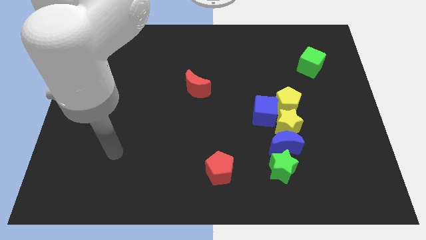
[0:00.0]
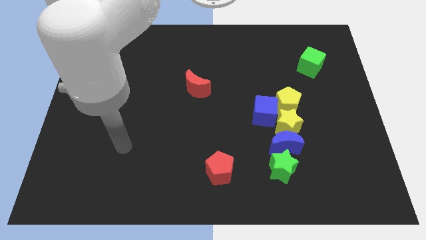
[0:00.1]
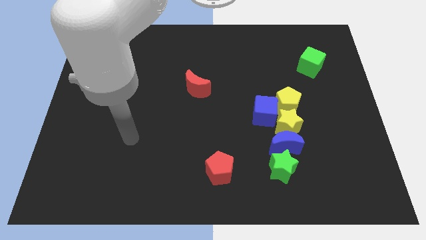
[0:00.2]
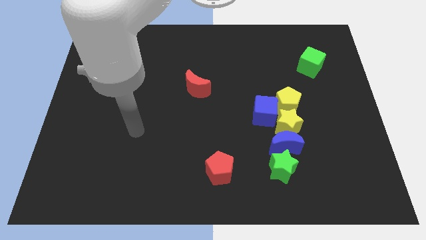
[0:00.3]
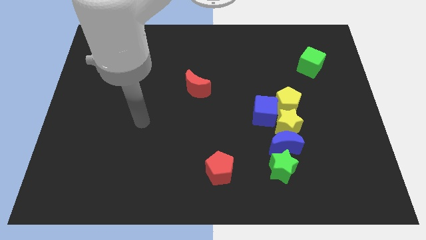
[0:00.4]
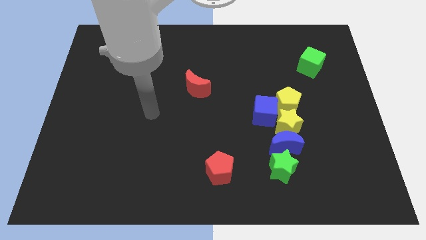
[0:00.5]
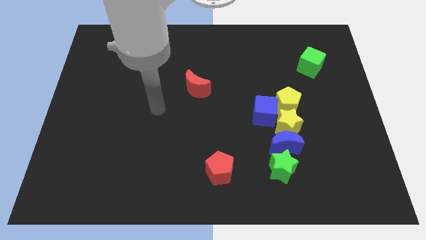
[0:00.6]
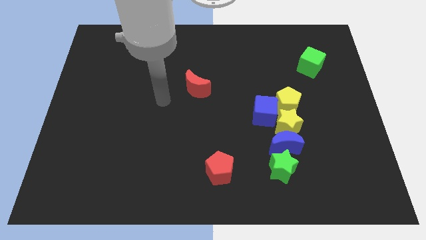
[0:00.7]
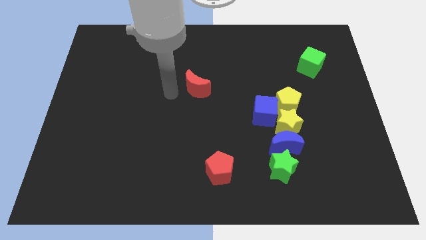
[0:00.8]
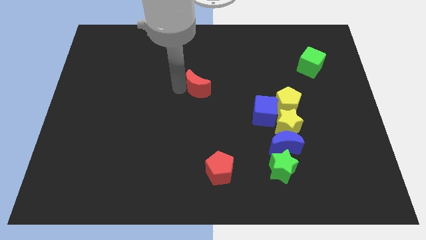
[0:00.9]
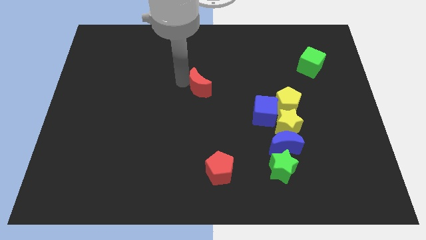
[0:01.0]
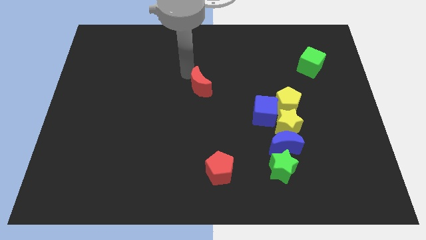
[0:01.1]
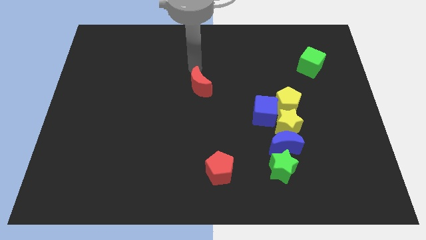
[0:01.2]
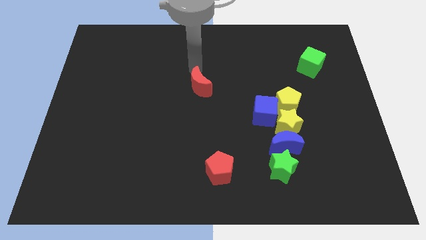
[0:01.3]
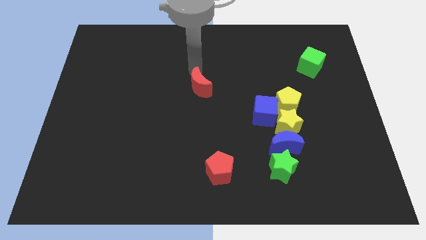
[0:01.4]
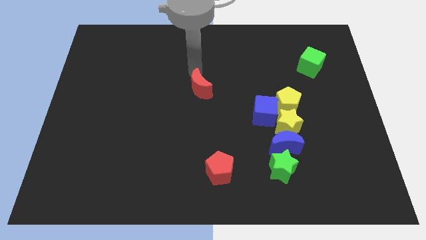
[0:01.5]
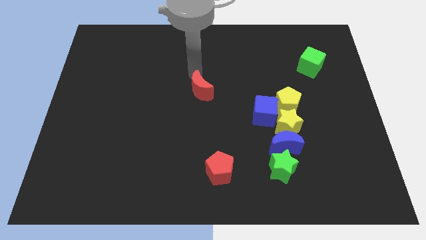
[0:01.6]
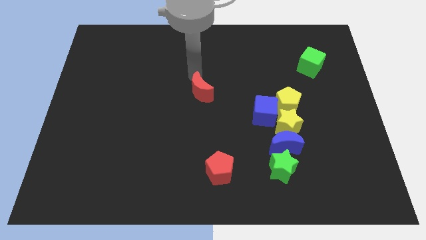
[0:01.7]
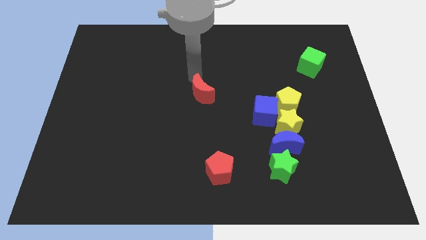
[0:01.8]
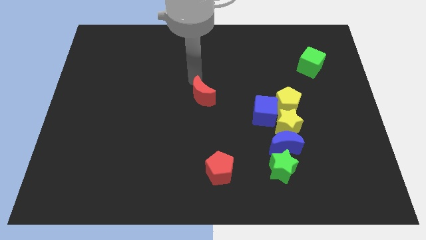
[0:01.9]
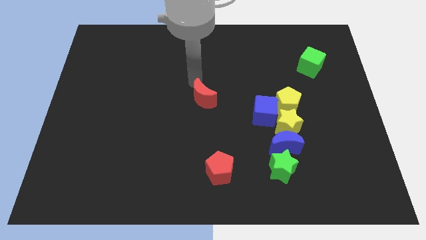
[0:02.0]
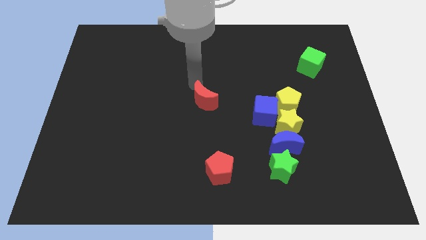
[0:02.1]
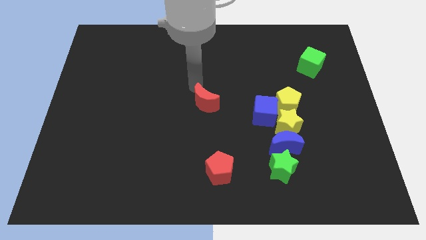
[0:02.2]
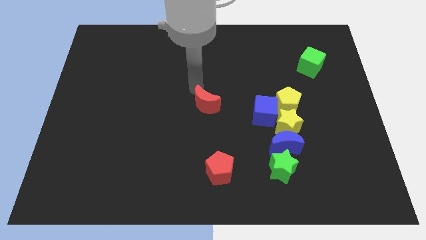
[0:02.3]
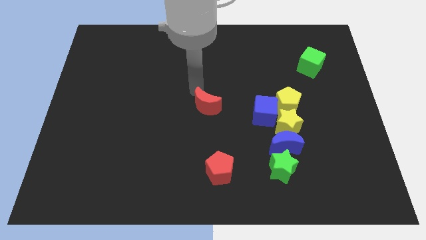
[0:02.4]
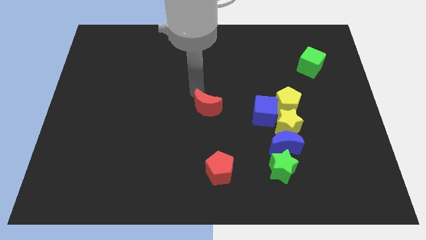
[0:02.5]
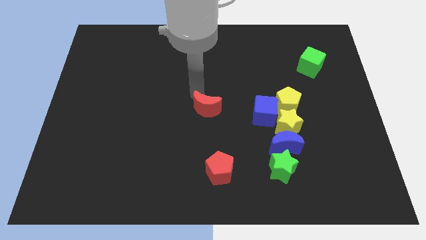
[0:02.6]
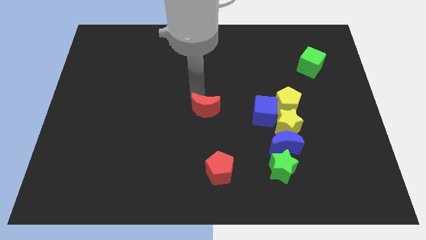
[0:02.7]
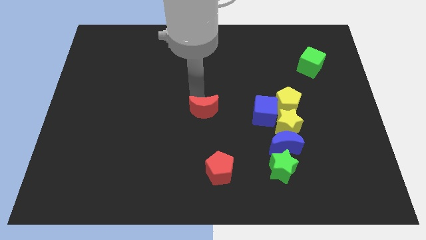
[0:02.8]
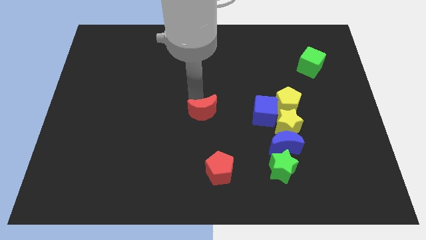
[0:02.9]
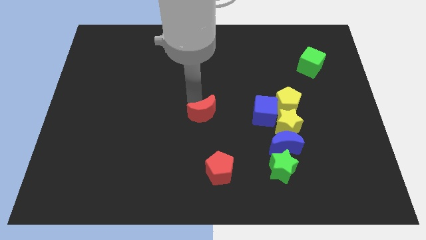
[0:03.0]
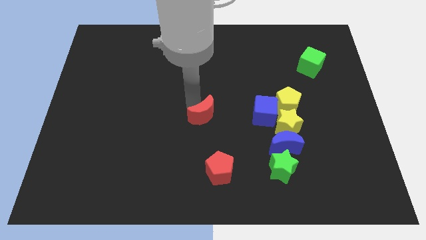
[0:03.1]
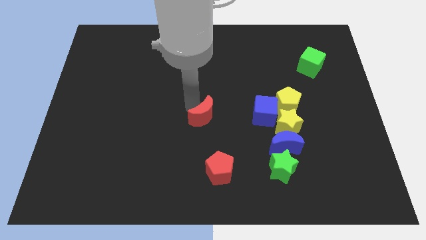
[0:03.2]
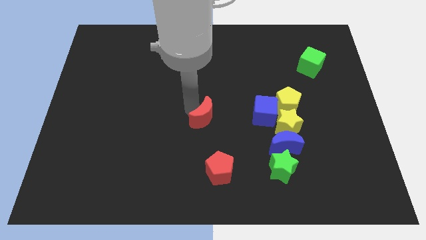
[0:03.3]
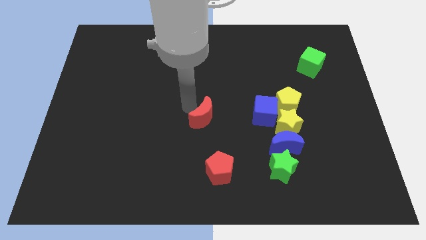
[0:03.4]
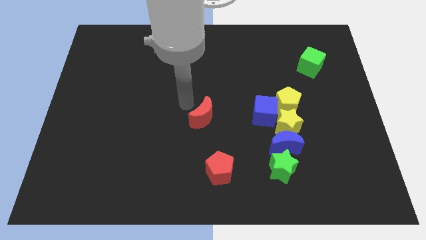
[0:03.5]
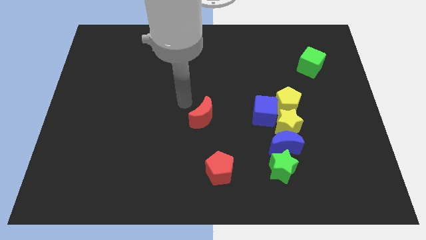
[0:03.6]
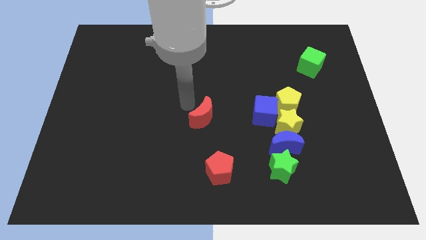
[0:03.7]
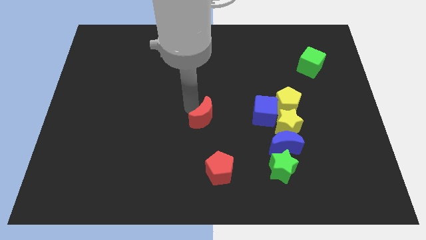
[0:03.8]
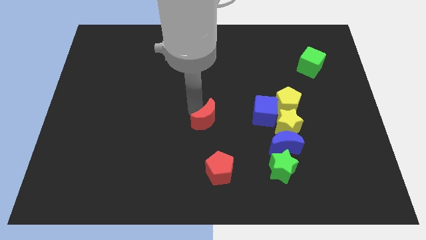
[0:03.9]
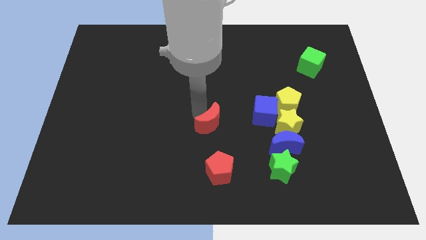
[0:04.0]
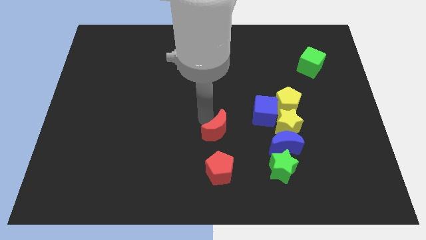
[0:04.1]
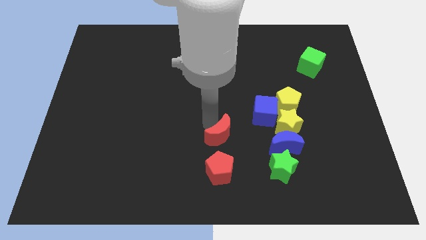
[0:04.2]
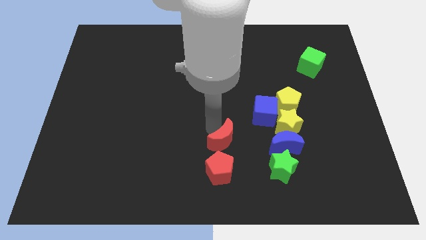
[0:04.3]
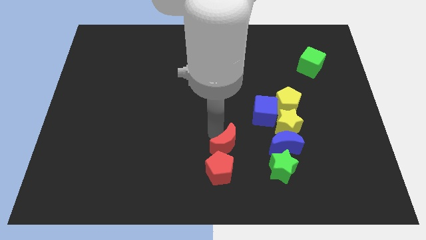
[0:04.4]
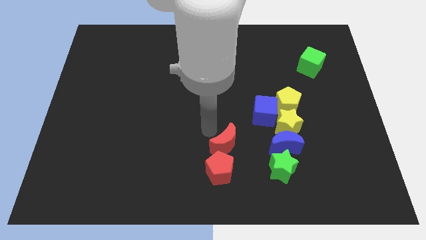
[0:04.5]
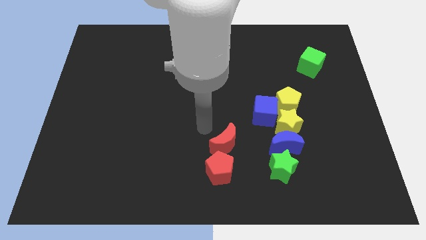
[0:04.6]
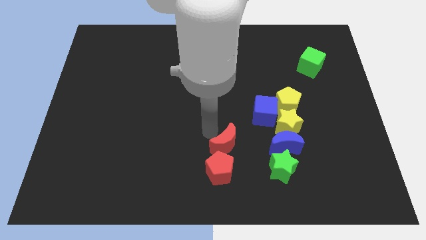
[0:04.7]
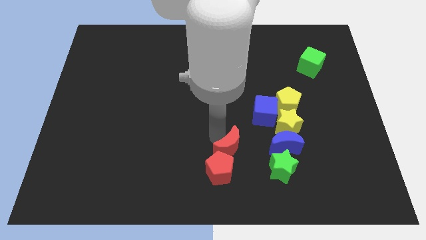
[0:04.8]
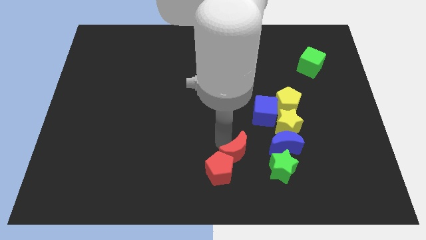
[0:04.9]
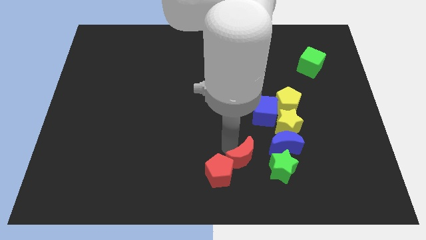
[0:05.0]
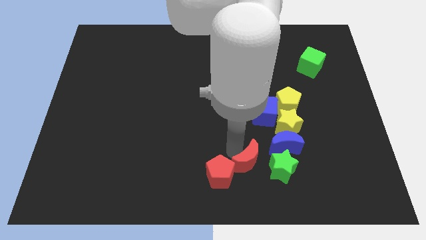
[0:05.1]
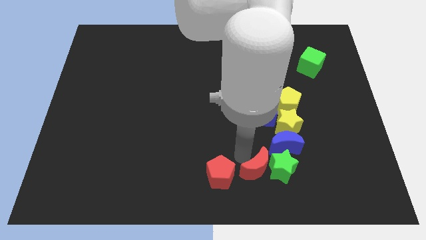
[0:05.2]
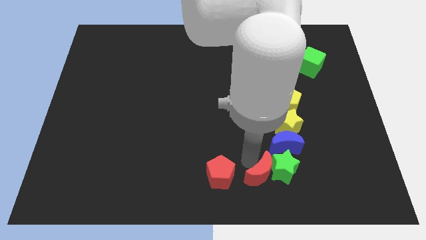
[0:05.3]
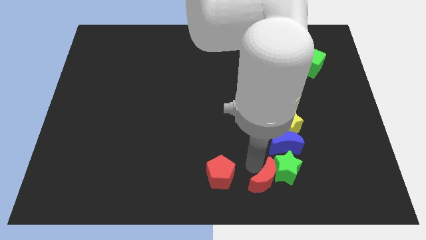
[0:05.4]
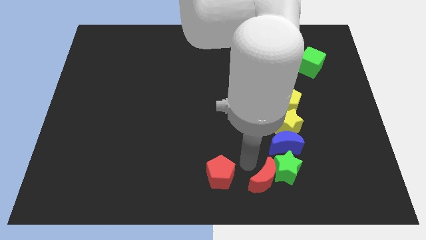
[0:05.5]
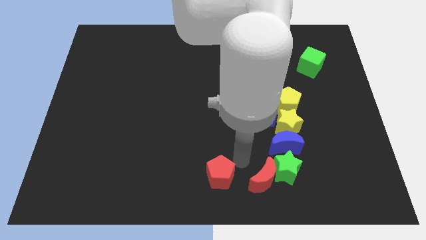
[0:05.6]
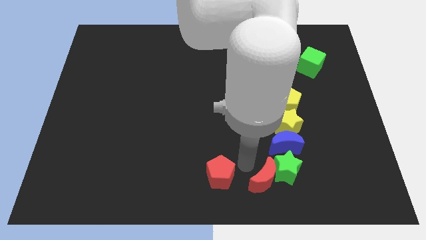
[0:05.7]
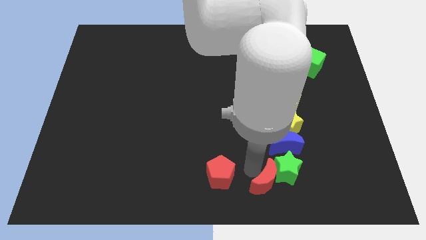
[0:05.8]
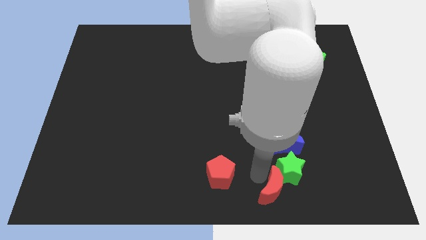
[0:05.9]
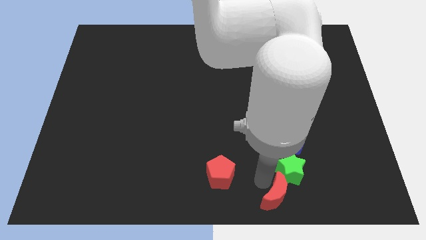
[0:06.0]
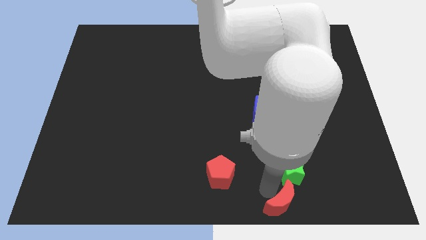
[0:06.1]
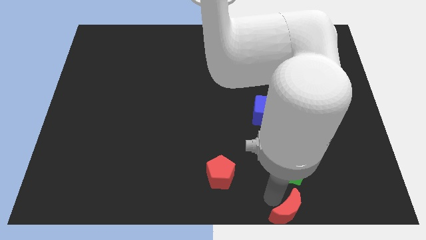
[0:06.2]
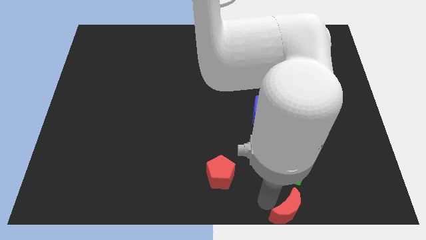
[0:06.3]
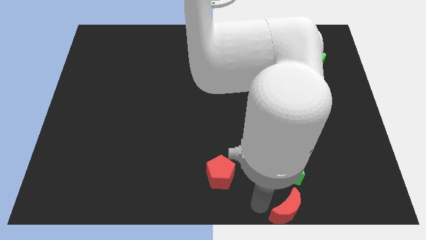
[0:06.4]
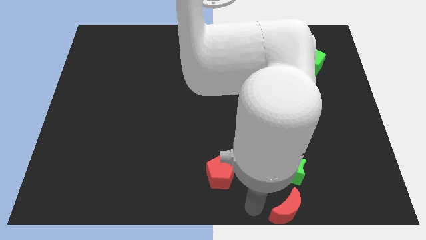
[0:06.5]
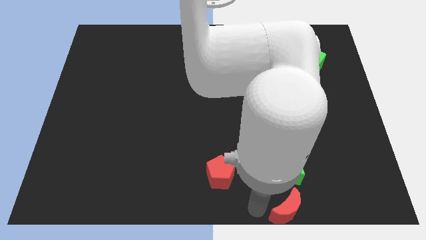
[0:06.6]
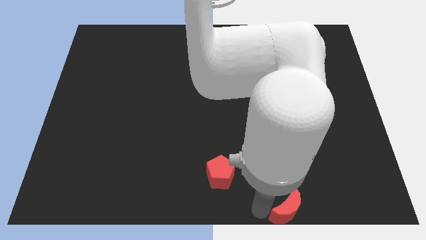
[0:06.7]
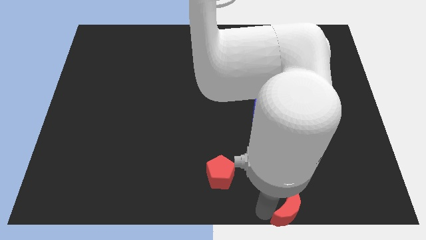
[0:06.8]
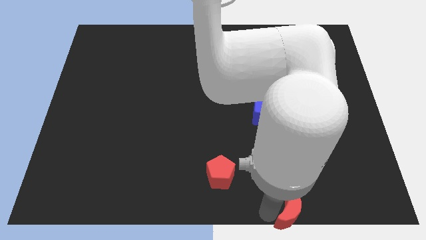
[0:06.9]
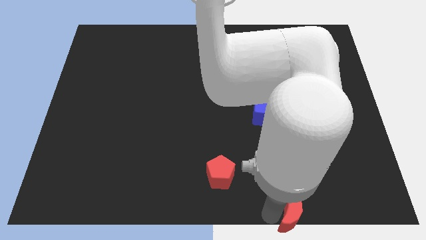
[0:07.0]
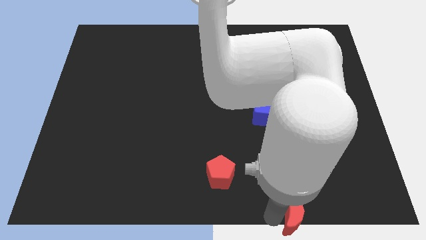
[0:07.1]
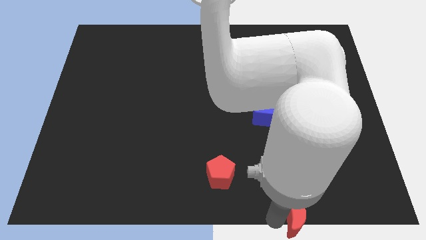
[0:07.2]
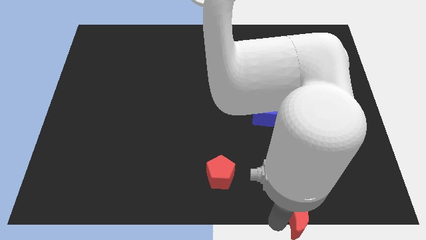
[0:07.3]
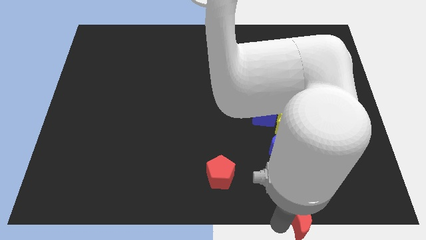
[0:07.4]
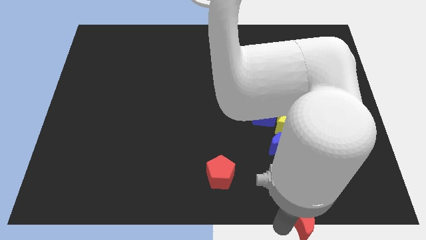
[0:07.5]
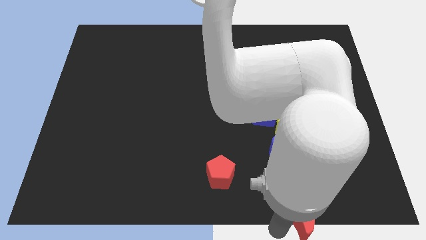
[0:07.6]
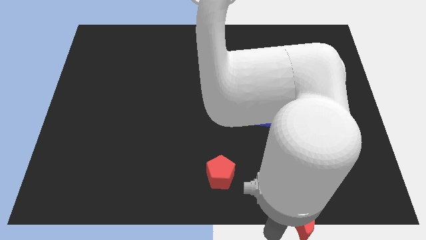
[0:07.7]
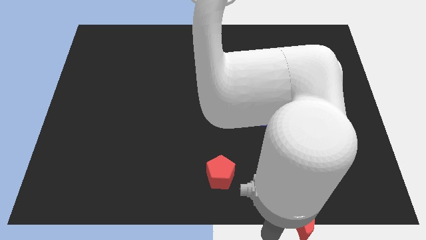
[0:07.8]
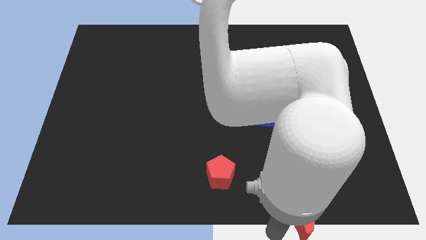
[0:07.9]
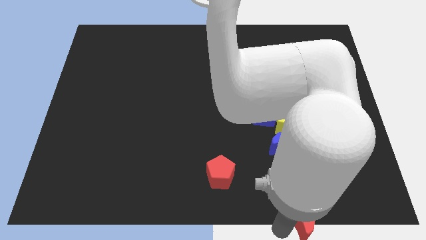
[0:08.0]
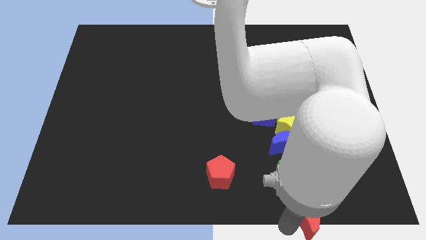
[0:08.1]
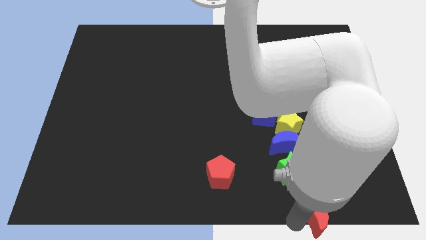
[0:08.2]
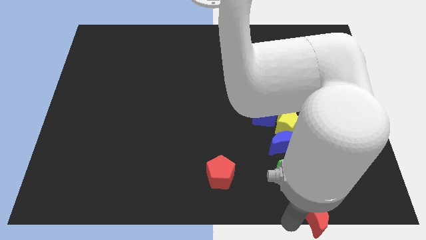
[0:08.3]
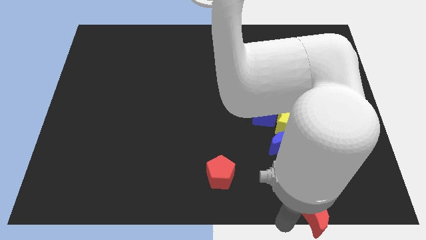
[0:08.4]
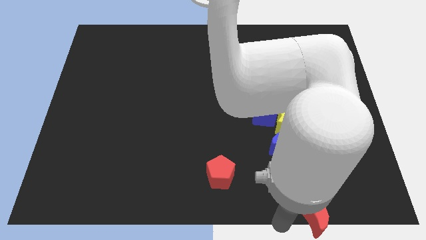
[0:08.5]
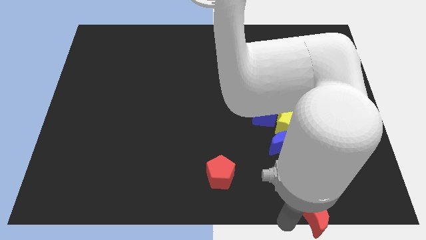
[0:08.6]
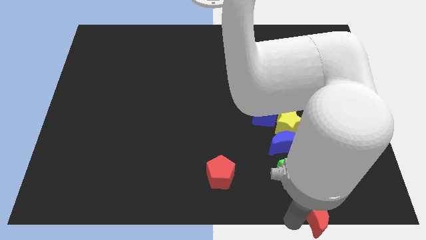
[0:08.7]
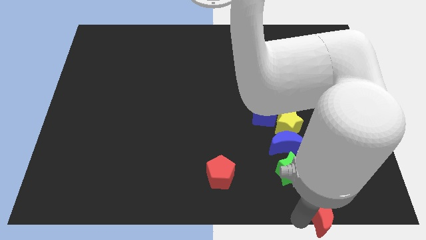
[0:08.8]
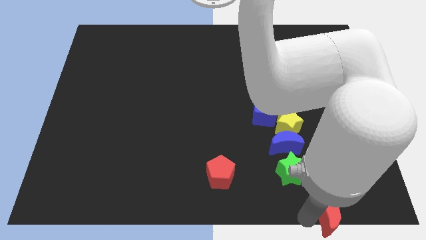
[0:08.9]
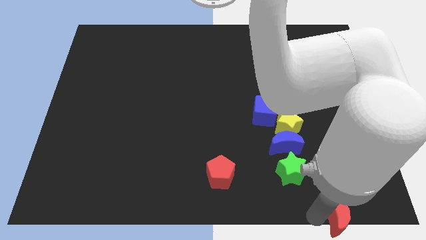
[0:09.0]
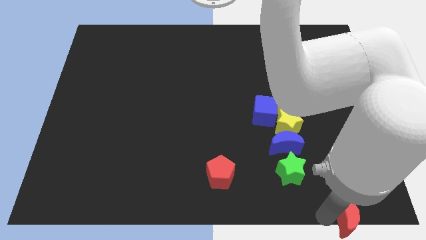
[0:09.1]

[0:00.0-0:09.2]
slide the red moon to the bottom right
